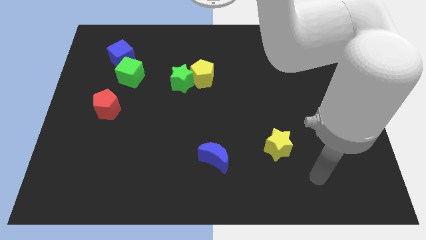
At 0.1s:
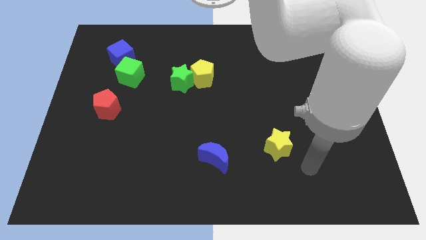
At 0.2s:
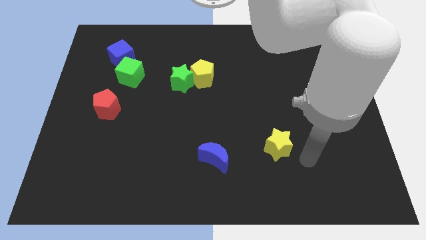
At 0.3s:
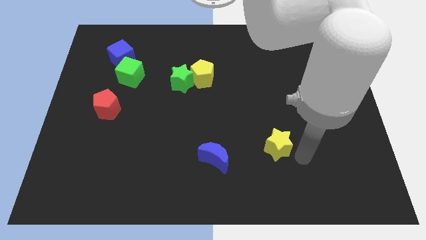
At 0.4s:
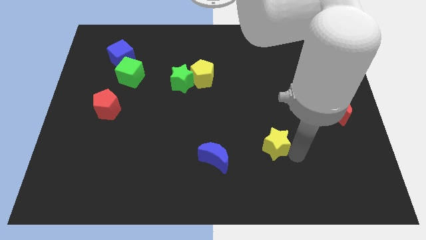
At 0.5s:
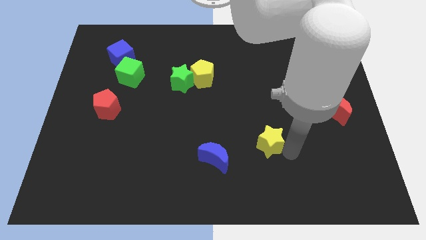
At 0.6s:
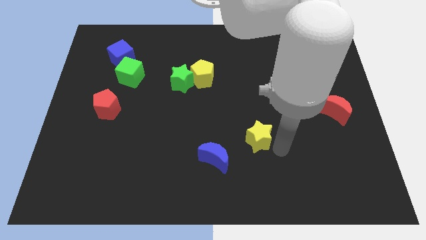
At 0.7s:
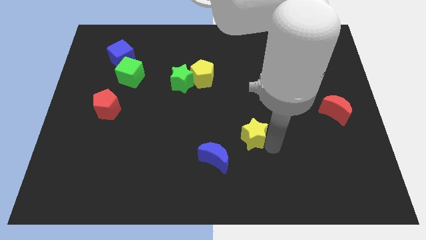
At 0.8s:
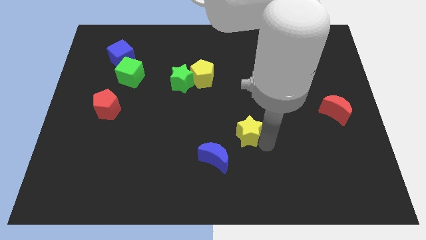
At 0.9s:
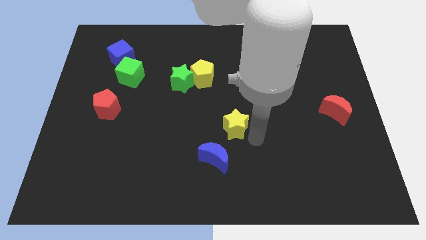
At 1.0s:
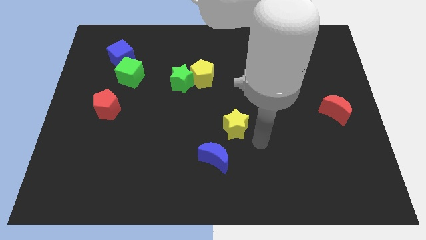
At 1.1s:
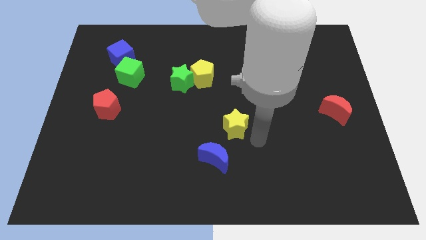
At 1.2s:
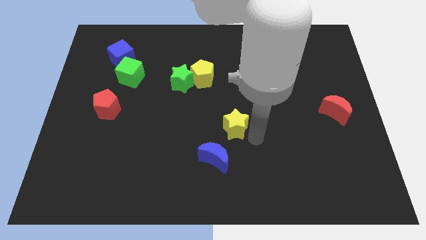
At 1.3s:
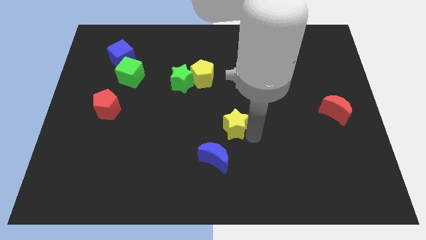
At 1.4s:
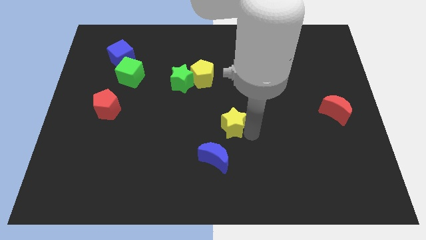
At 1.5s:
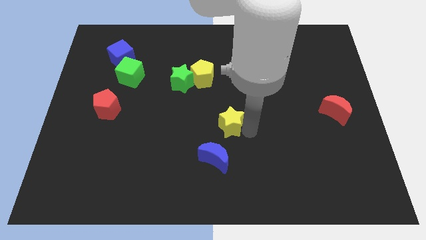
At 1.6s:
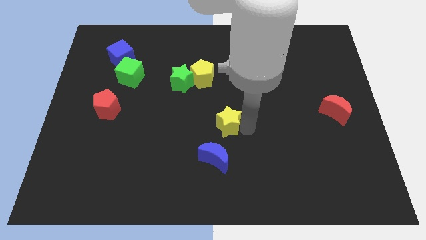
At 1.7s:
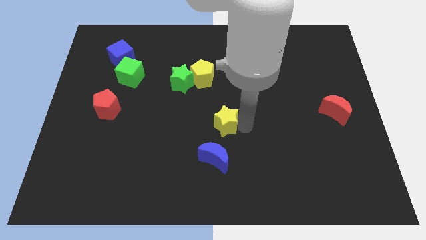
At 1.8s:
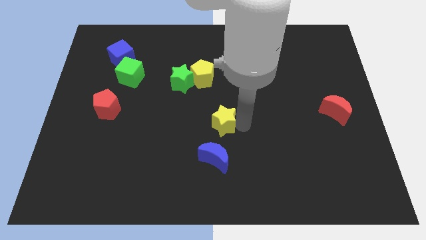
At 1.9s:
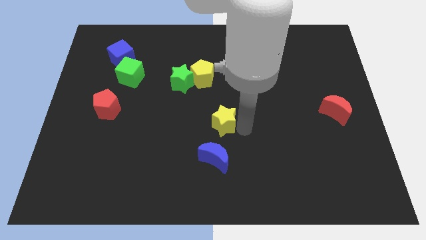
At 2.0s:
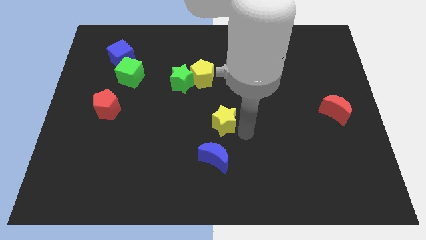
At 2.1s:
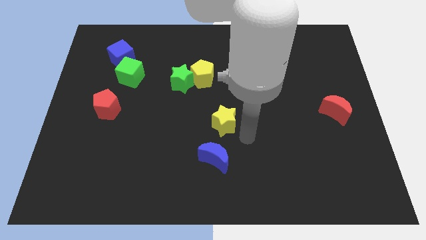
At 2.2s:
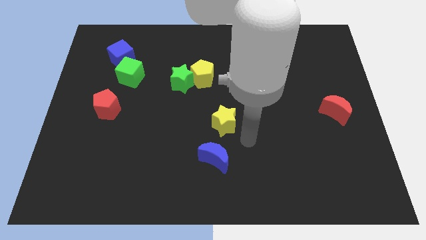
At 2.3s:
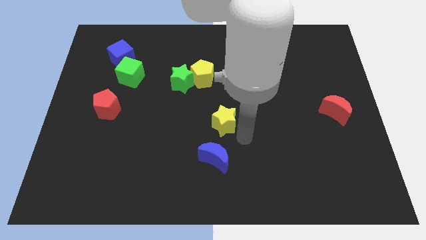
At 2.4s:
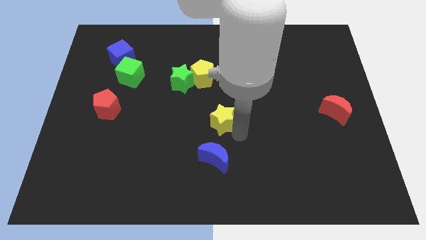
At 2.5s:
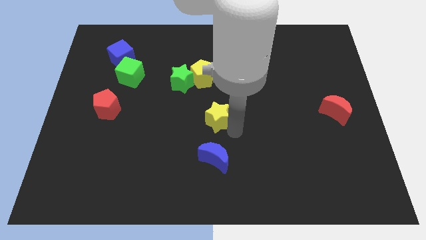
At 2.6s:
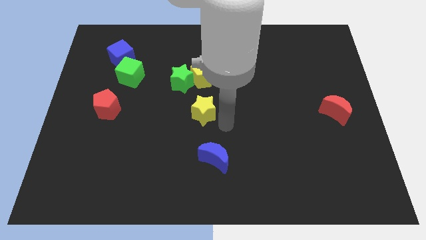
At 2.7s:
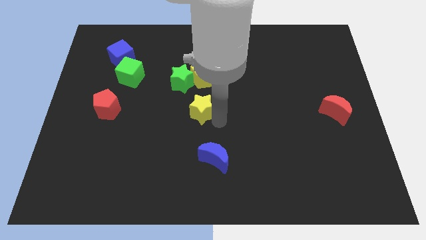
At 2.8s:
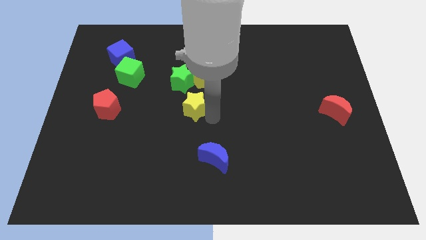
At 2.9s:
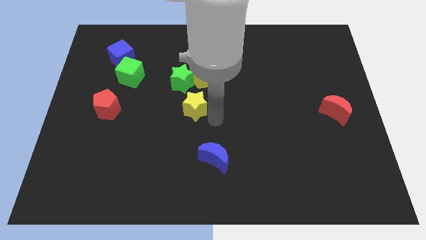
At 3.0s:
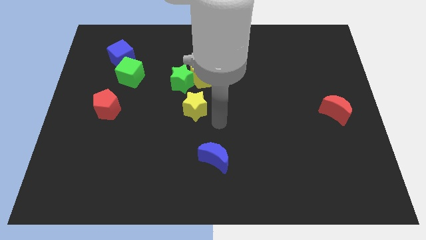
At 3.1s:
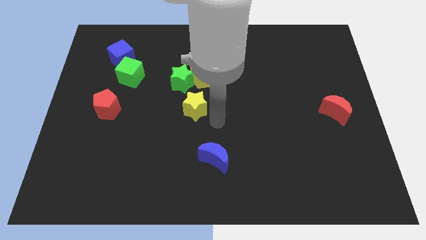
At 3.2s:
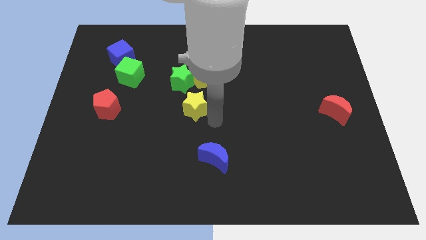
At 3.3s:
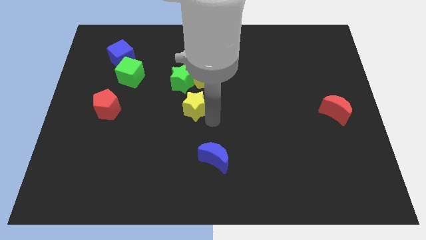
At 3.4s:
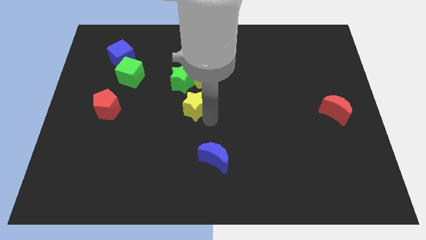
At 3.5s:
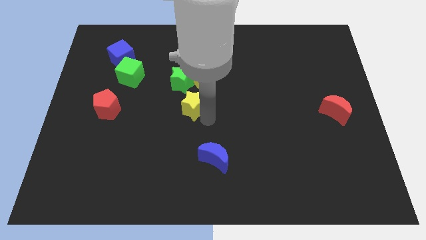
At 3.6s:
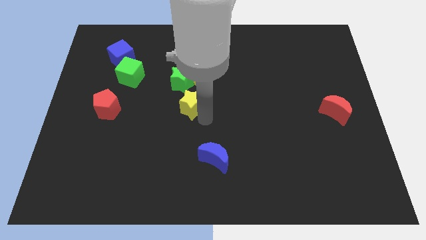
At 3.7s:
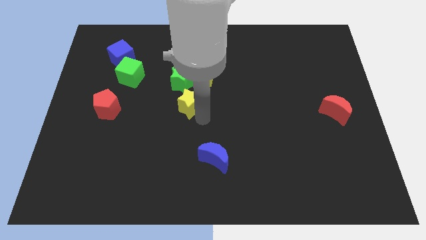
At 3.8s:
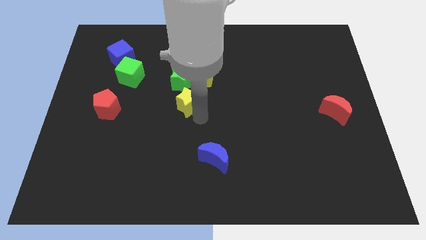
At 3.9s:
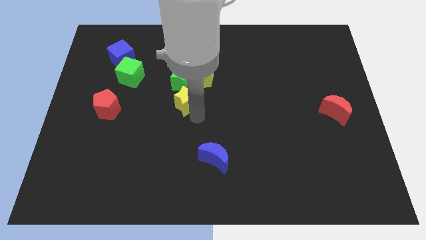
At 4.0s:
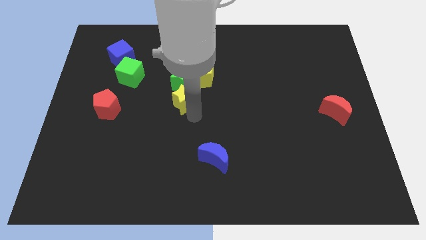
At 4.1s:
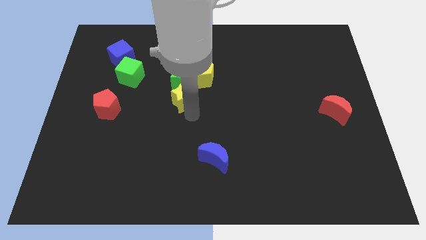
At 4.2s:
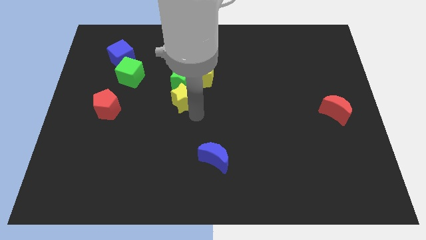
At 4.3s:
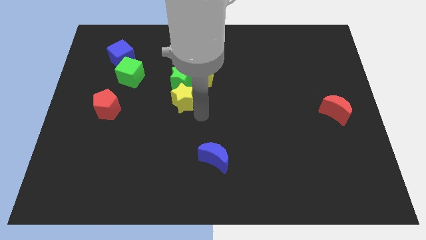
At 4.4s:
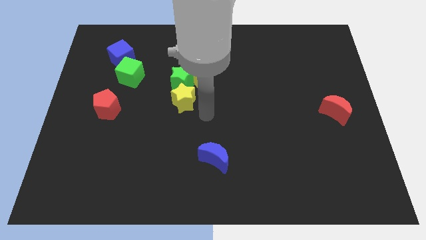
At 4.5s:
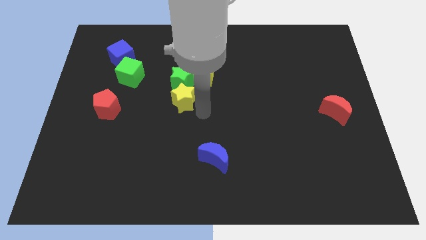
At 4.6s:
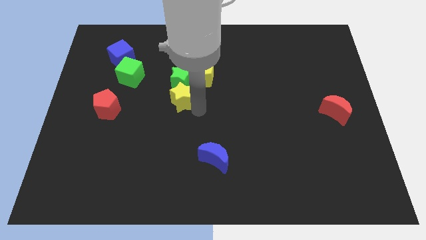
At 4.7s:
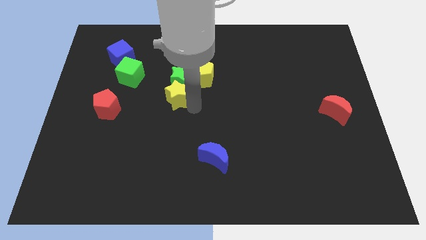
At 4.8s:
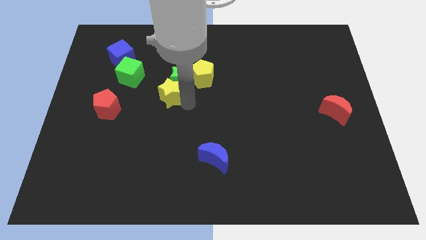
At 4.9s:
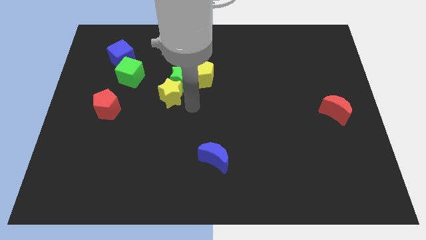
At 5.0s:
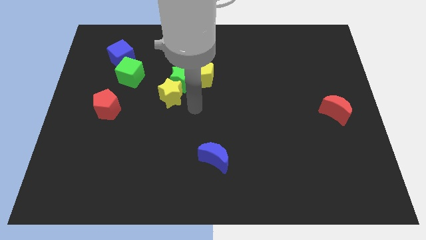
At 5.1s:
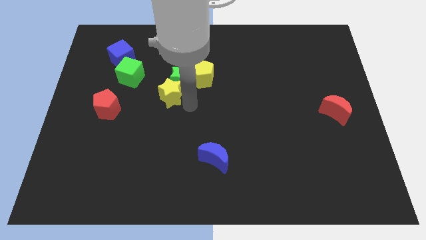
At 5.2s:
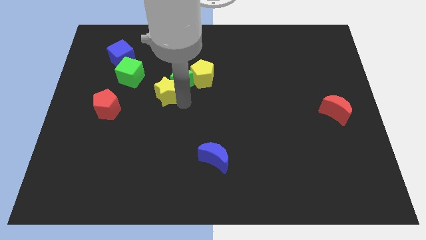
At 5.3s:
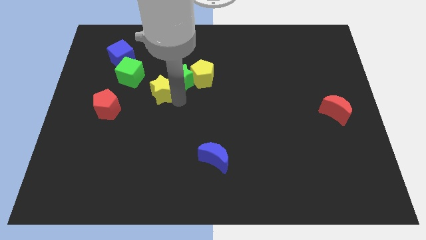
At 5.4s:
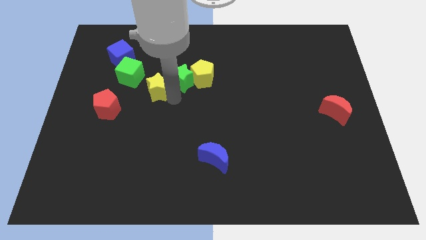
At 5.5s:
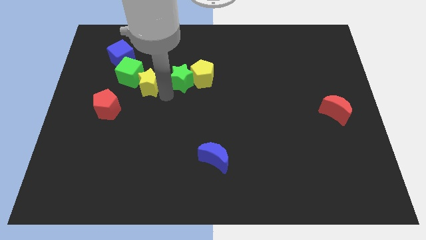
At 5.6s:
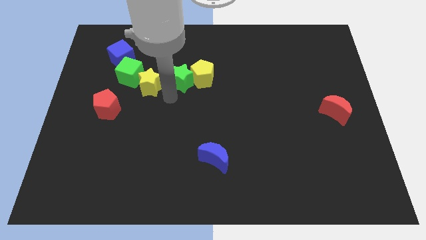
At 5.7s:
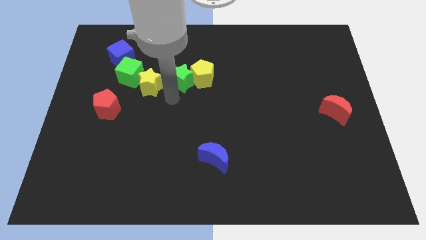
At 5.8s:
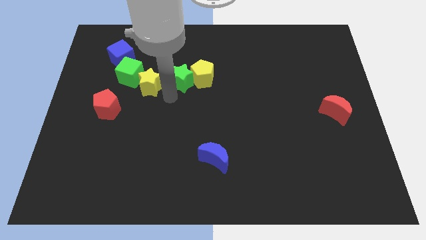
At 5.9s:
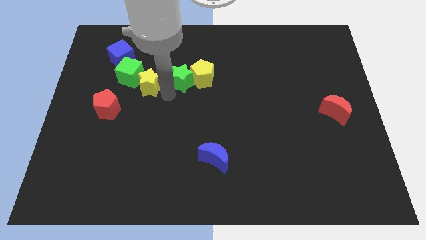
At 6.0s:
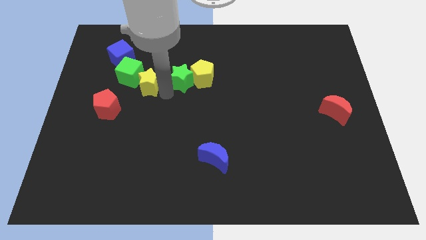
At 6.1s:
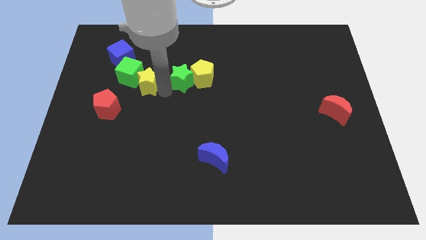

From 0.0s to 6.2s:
put the yellow star next to the green cube

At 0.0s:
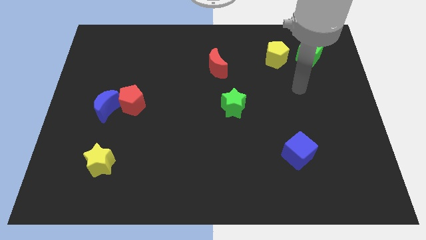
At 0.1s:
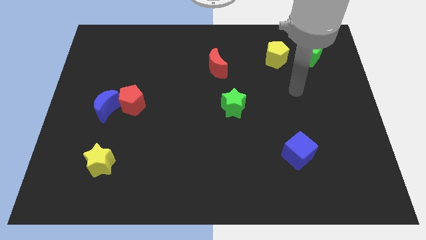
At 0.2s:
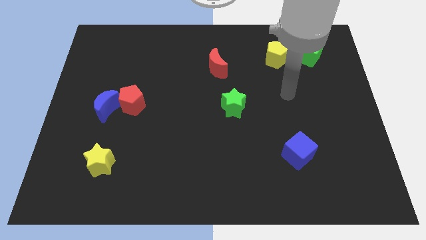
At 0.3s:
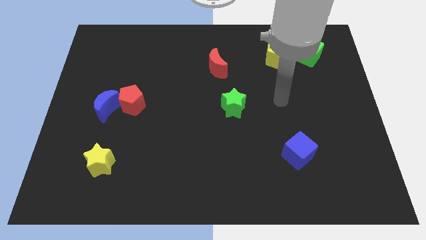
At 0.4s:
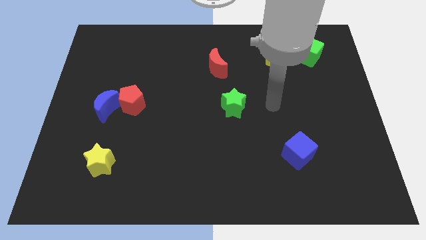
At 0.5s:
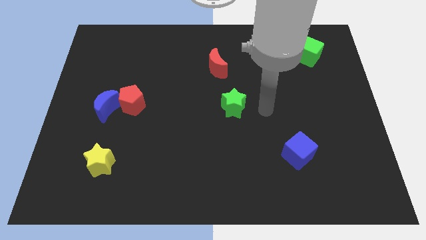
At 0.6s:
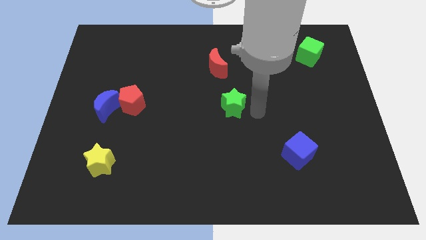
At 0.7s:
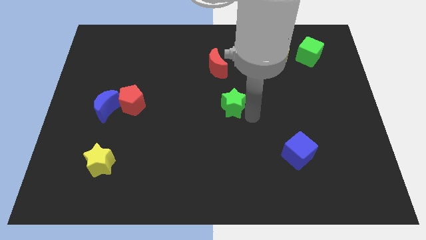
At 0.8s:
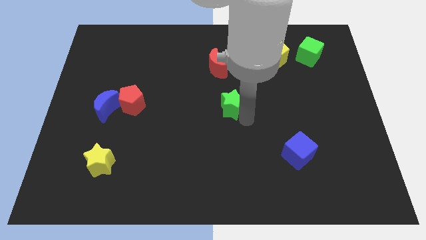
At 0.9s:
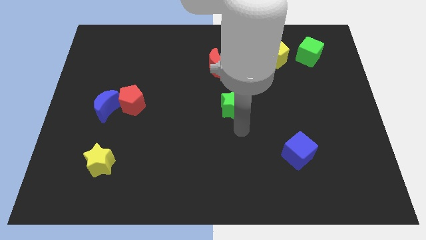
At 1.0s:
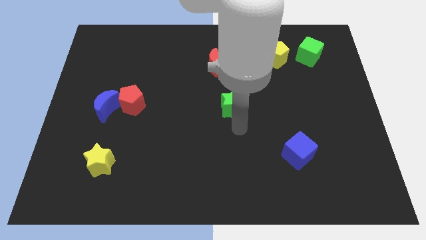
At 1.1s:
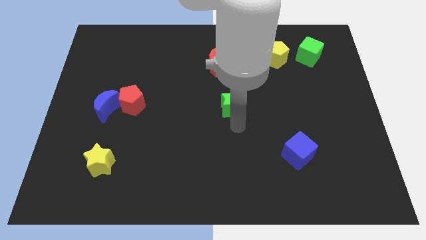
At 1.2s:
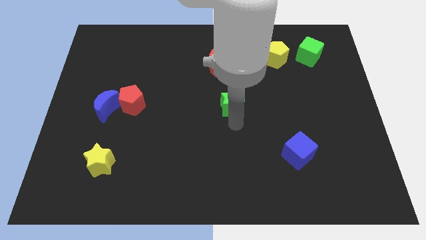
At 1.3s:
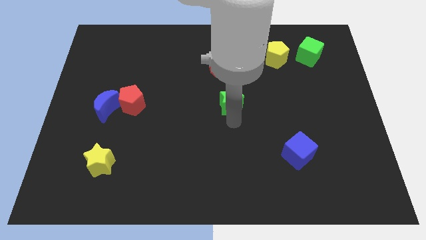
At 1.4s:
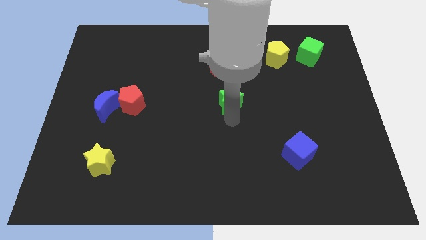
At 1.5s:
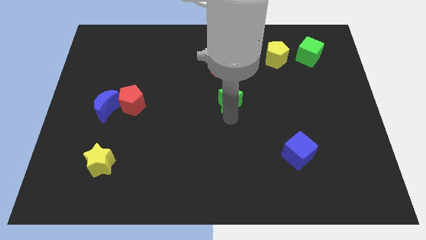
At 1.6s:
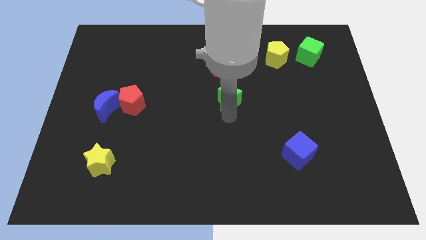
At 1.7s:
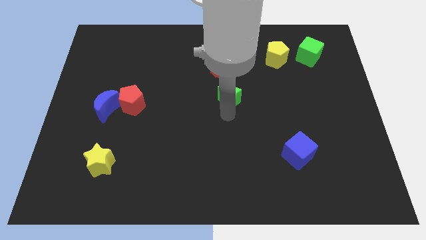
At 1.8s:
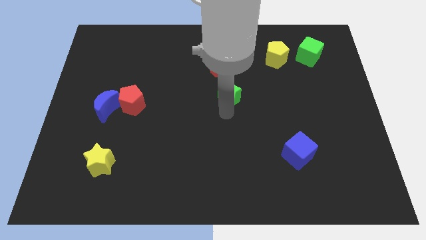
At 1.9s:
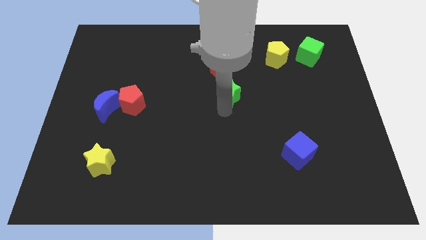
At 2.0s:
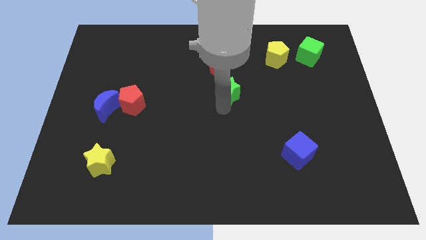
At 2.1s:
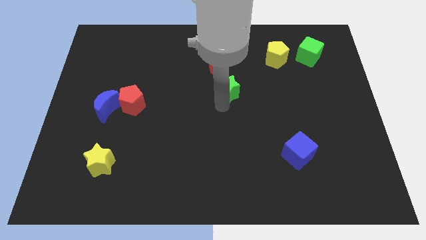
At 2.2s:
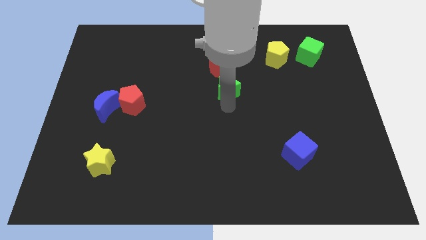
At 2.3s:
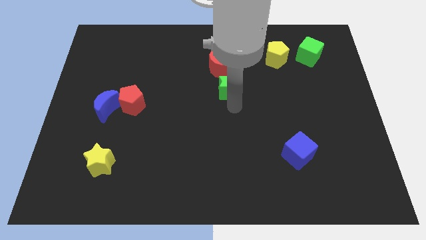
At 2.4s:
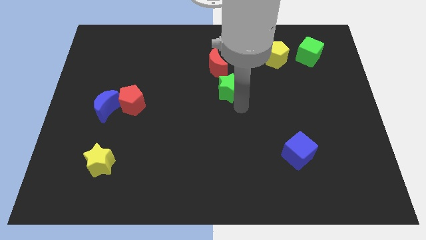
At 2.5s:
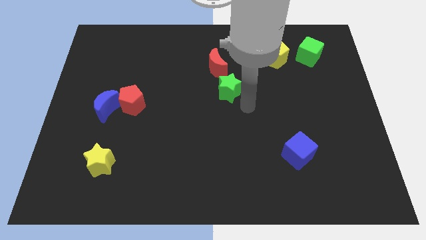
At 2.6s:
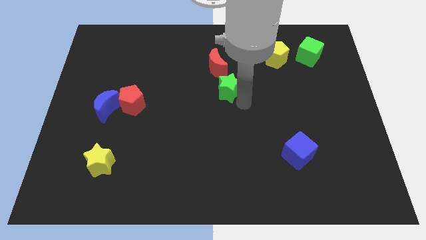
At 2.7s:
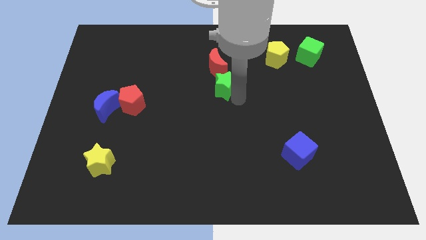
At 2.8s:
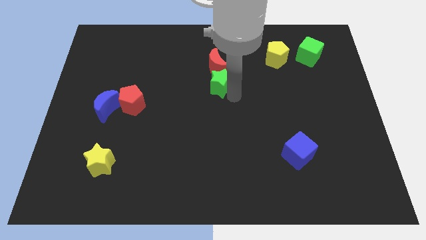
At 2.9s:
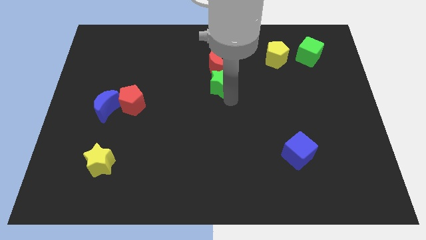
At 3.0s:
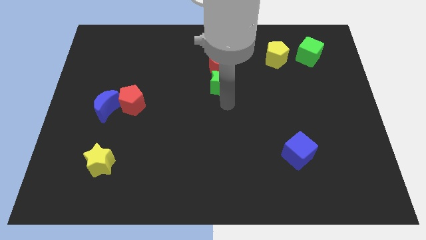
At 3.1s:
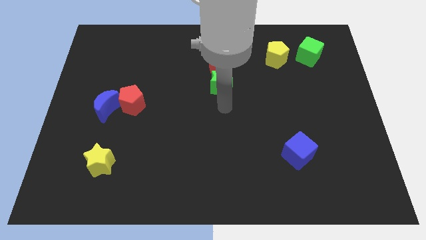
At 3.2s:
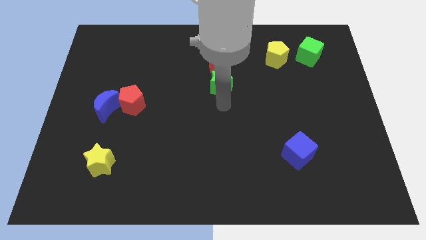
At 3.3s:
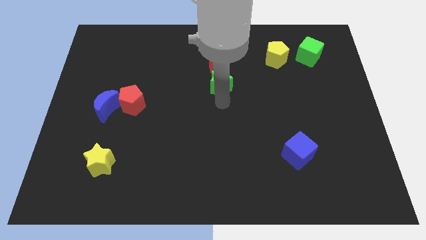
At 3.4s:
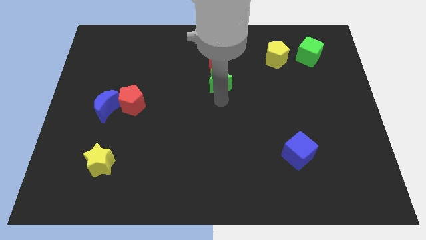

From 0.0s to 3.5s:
push the green star next to the red moon
